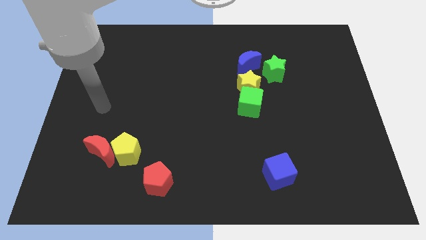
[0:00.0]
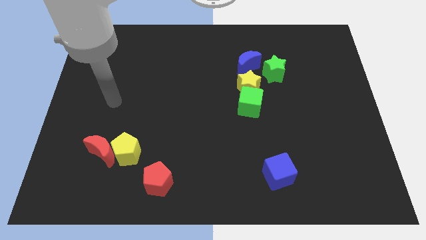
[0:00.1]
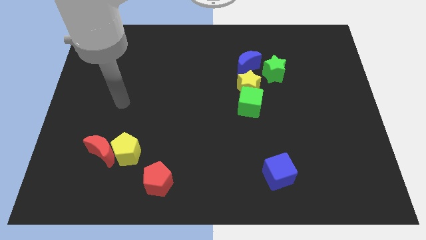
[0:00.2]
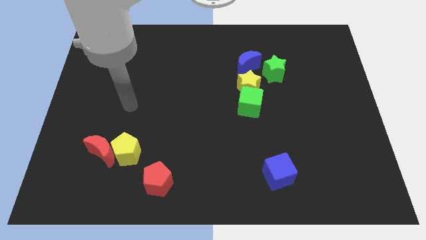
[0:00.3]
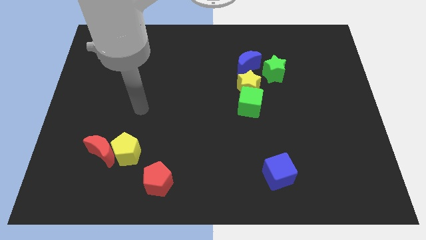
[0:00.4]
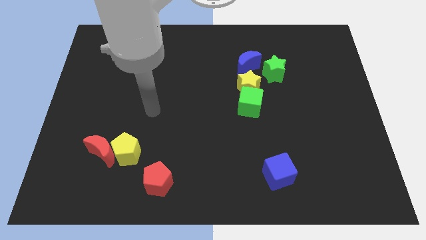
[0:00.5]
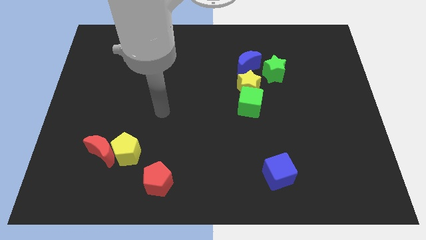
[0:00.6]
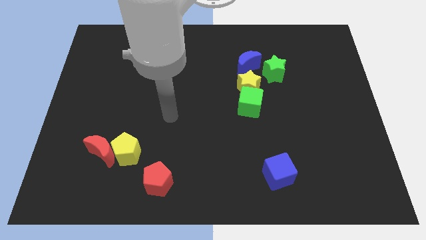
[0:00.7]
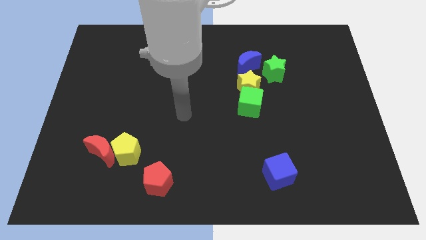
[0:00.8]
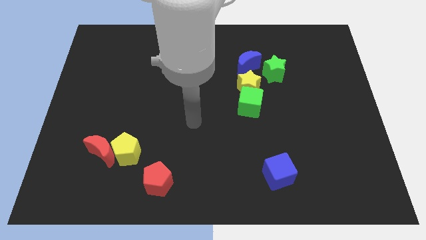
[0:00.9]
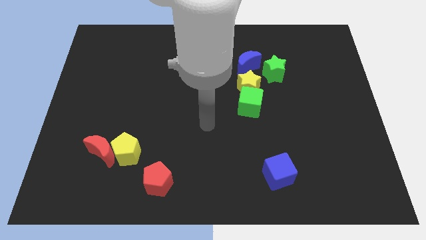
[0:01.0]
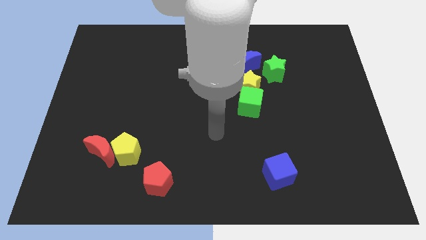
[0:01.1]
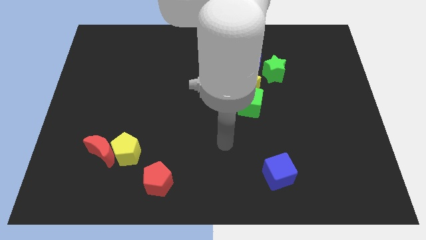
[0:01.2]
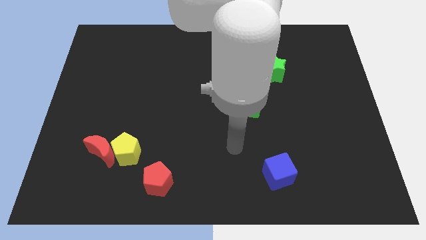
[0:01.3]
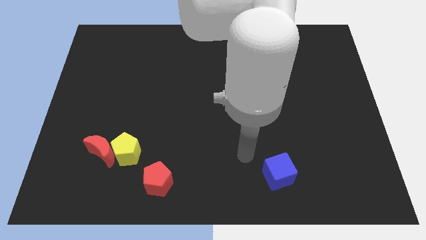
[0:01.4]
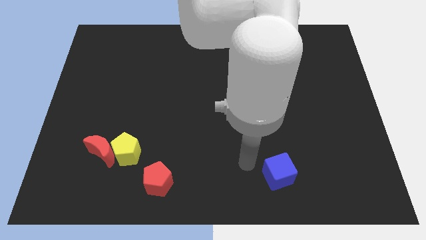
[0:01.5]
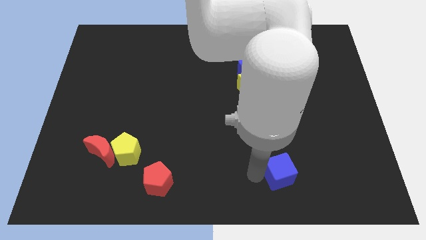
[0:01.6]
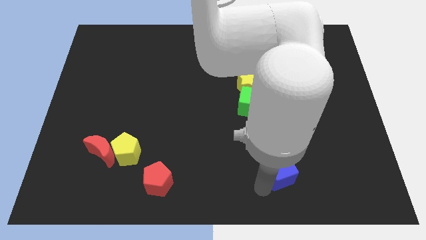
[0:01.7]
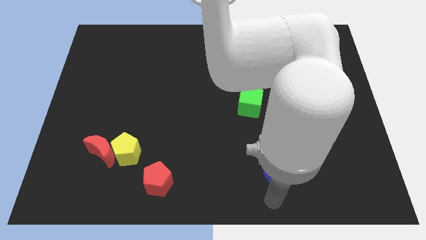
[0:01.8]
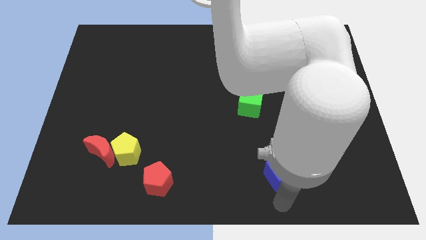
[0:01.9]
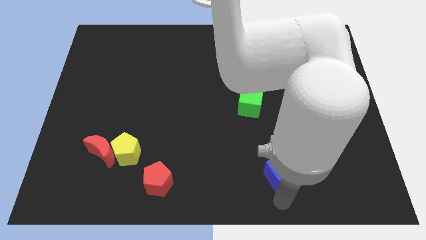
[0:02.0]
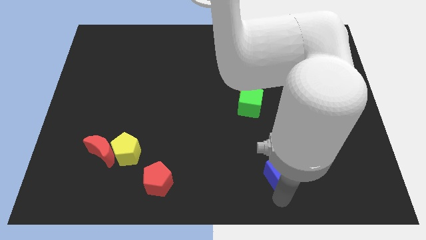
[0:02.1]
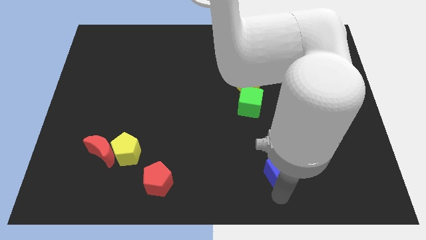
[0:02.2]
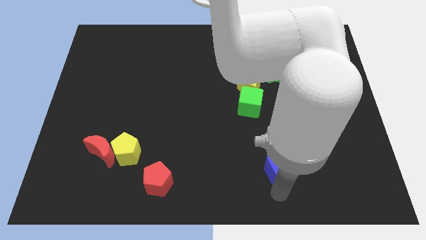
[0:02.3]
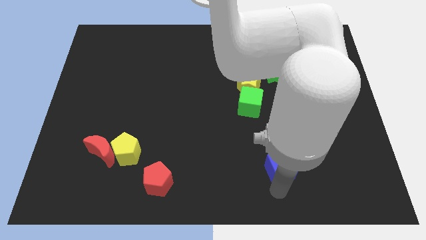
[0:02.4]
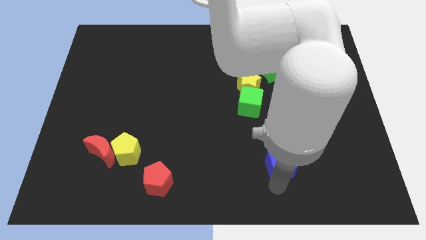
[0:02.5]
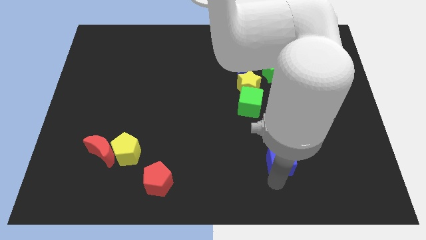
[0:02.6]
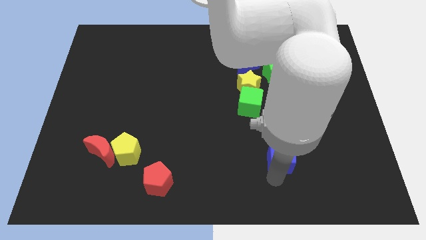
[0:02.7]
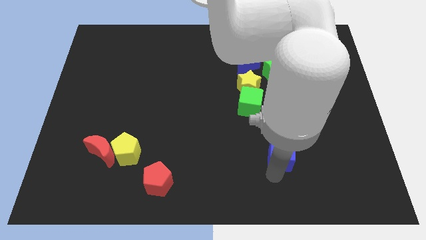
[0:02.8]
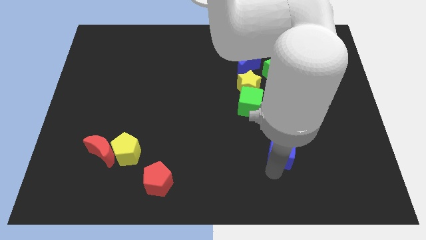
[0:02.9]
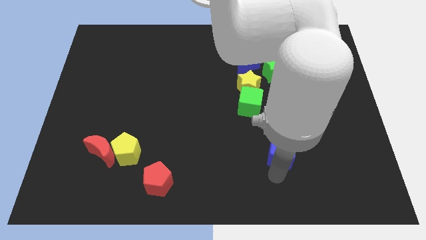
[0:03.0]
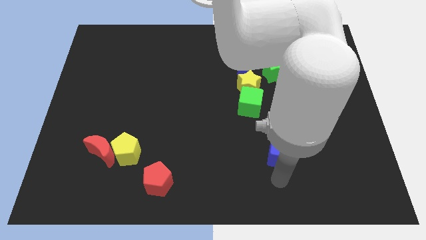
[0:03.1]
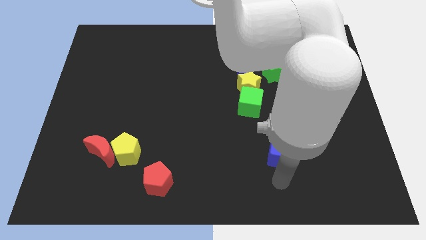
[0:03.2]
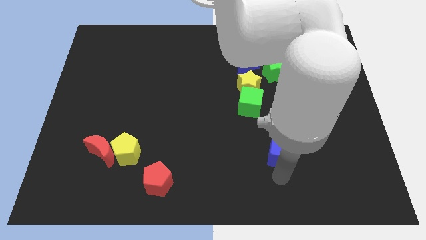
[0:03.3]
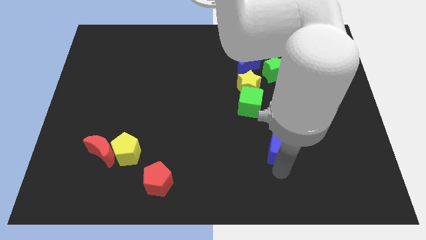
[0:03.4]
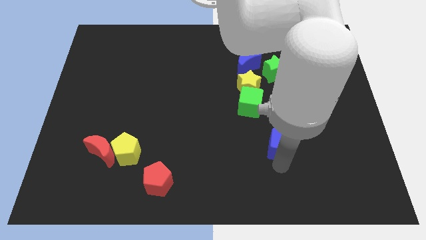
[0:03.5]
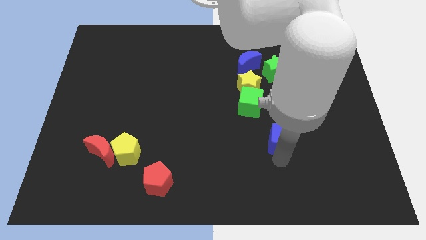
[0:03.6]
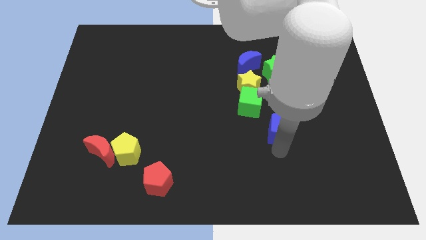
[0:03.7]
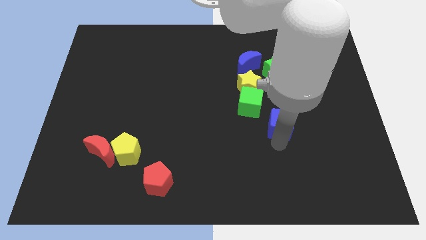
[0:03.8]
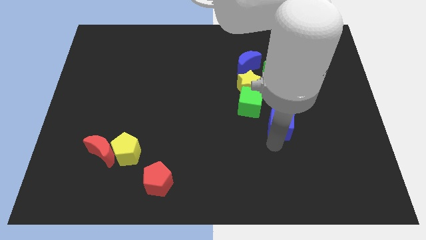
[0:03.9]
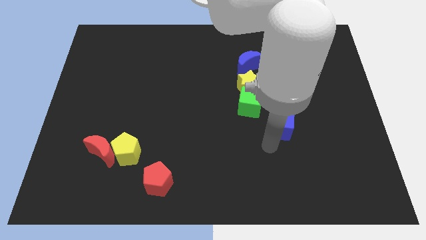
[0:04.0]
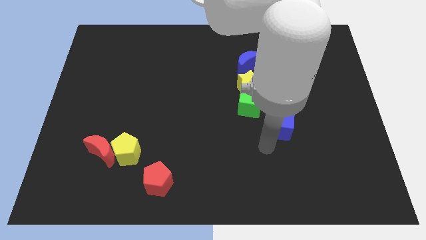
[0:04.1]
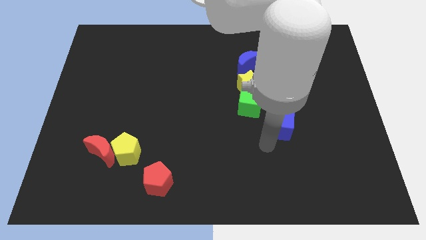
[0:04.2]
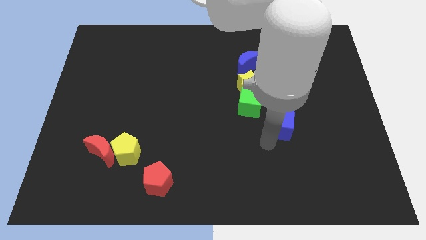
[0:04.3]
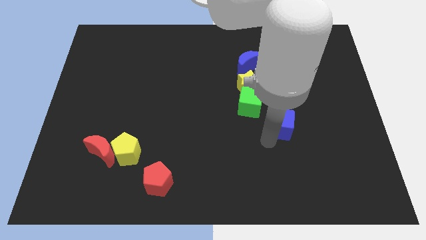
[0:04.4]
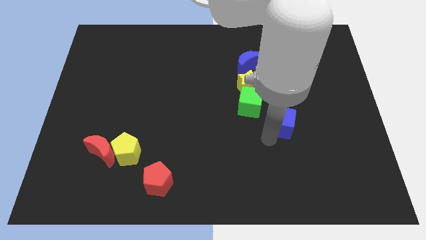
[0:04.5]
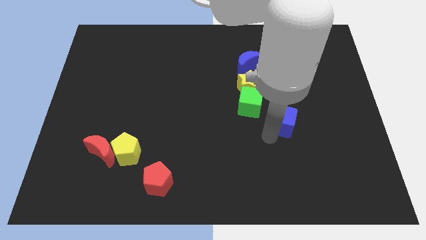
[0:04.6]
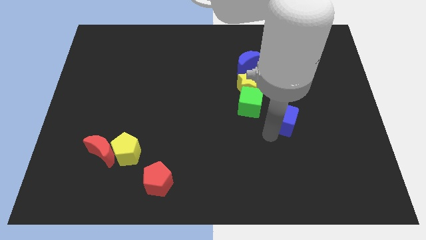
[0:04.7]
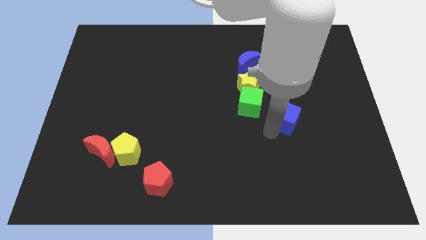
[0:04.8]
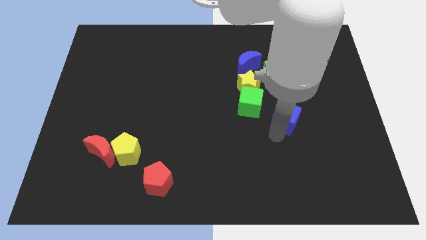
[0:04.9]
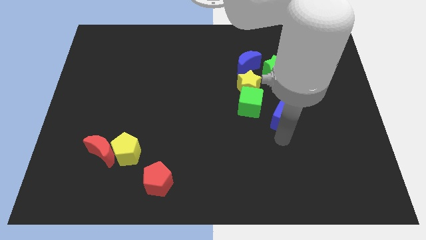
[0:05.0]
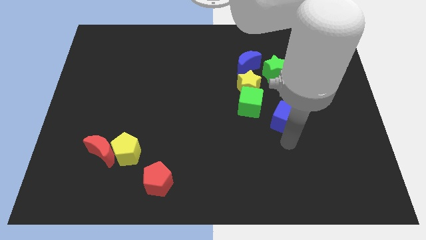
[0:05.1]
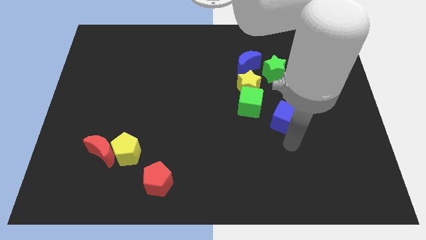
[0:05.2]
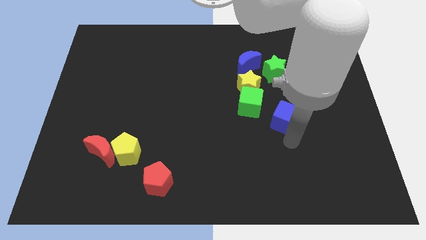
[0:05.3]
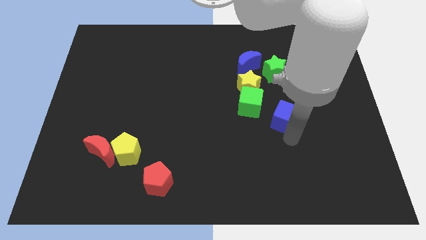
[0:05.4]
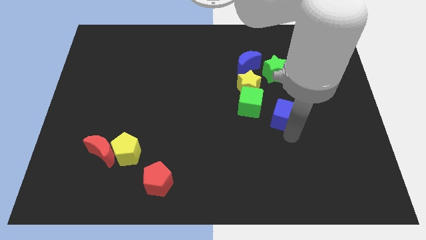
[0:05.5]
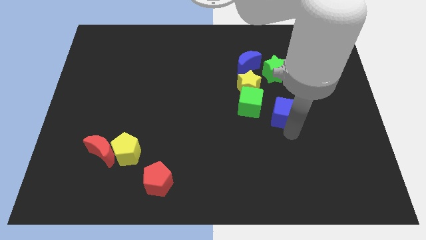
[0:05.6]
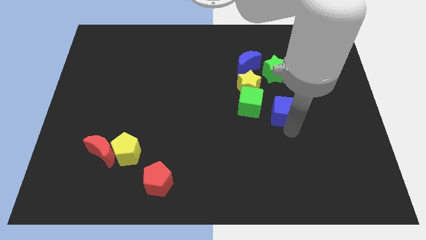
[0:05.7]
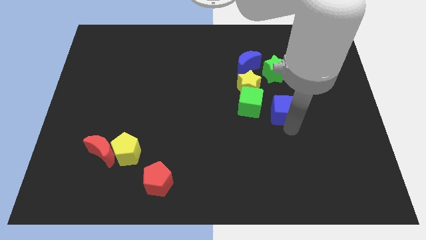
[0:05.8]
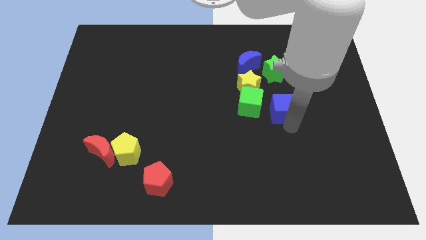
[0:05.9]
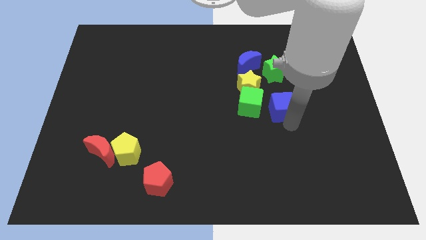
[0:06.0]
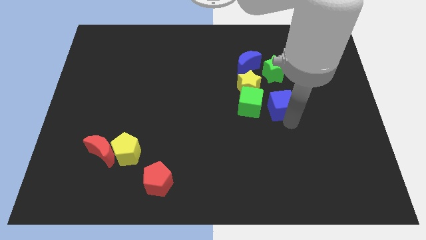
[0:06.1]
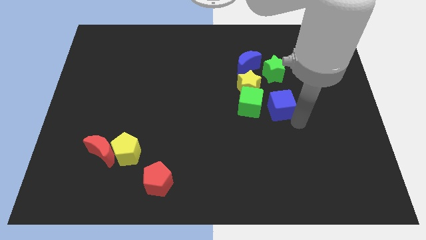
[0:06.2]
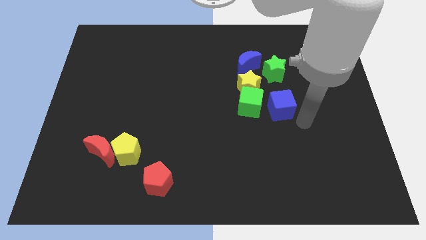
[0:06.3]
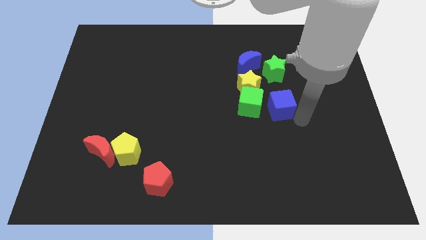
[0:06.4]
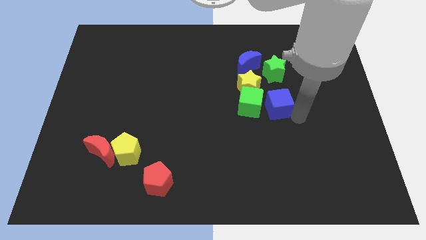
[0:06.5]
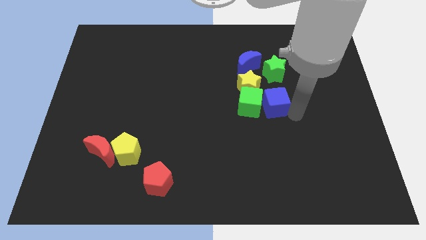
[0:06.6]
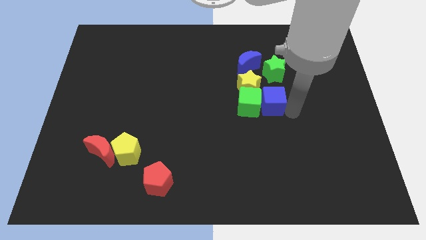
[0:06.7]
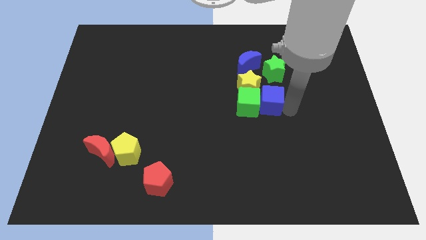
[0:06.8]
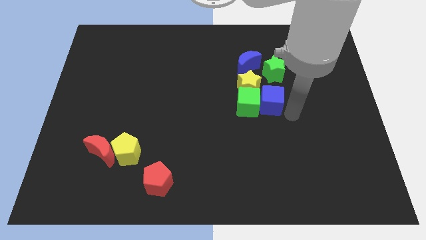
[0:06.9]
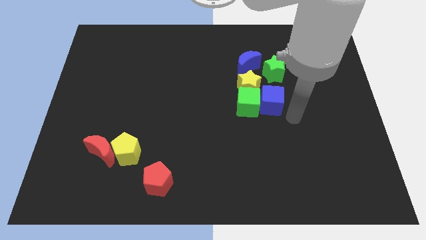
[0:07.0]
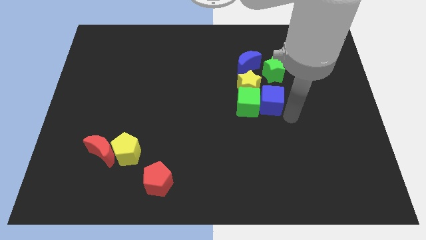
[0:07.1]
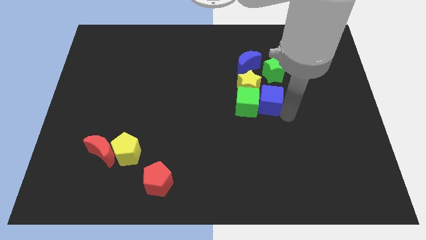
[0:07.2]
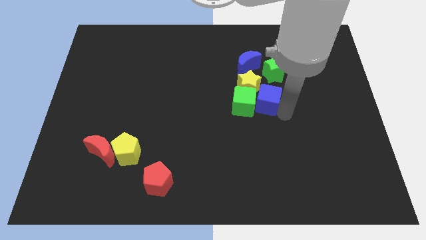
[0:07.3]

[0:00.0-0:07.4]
move the blue cube next to the yellow star
